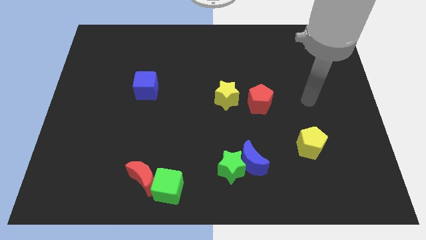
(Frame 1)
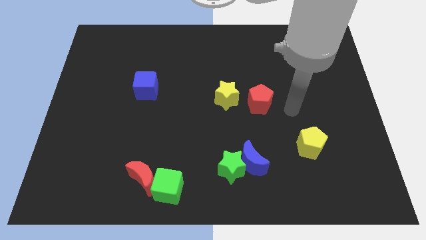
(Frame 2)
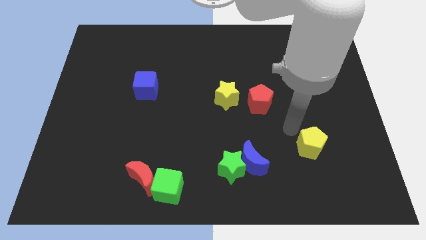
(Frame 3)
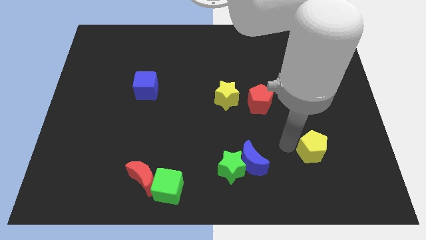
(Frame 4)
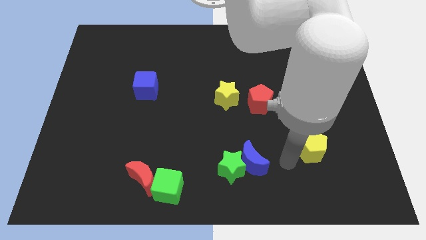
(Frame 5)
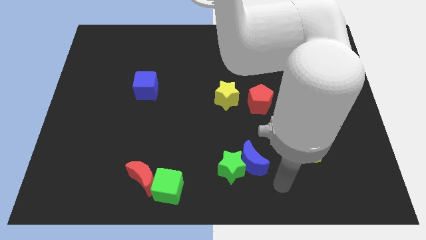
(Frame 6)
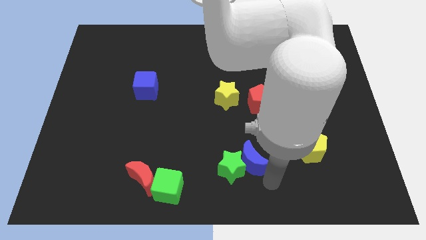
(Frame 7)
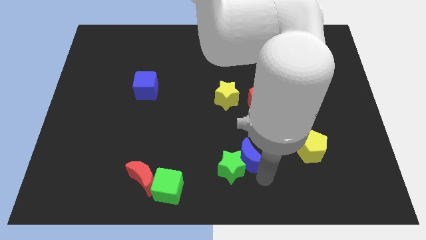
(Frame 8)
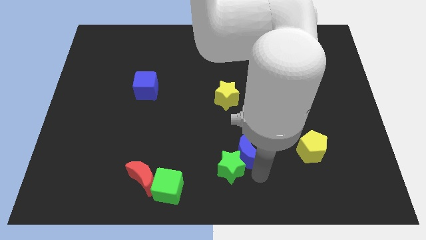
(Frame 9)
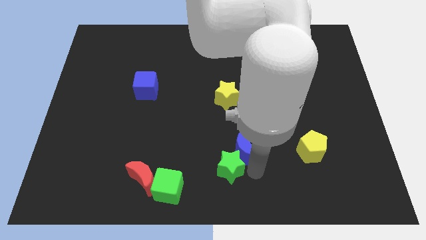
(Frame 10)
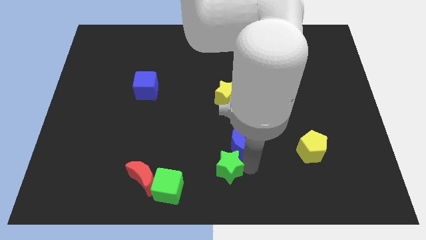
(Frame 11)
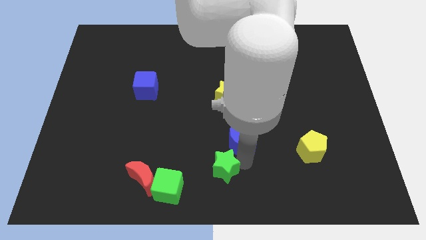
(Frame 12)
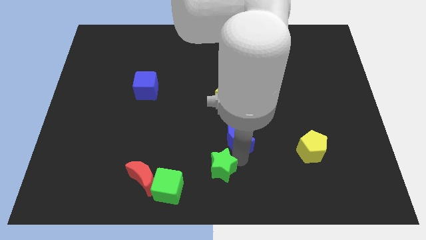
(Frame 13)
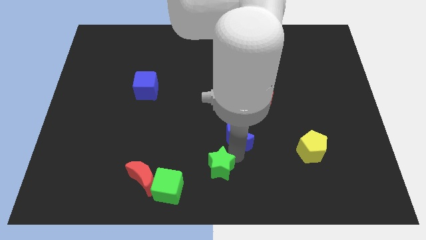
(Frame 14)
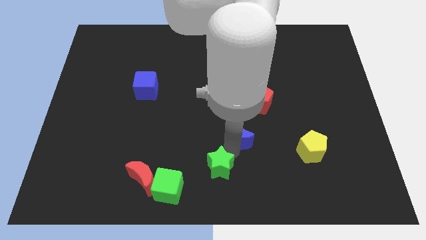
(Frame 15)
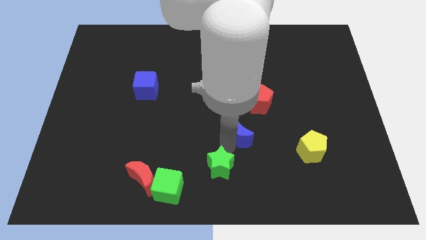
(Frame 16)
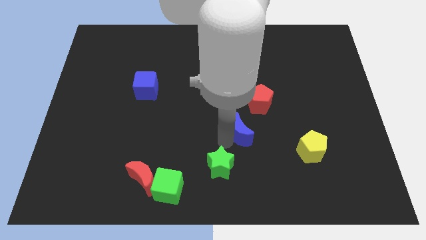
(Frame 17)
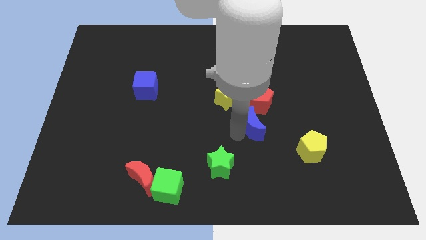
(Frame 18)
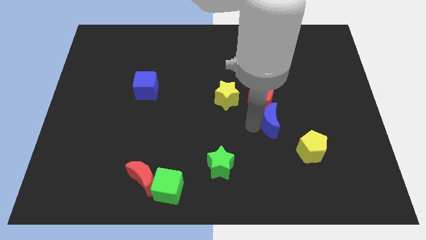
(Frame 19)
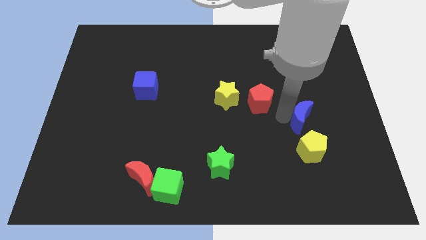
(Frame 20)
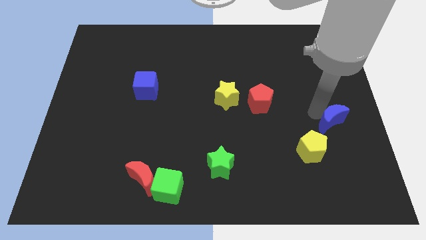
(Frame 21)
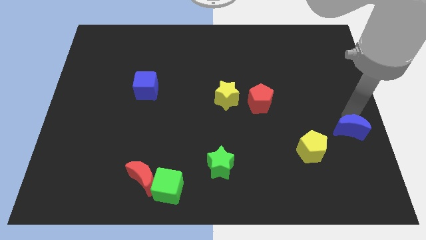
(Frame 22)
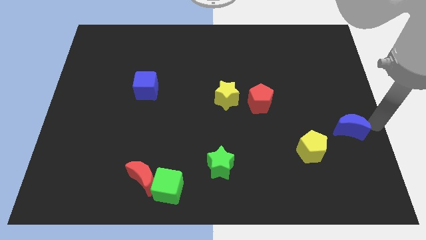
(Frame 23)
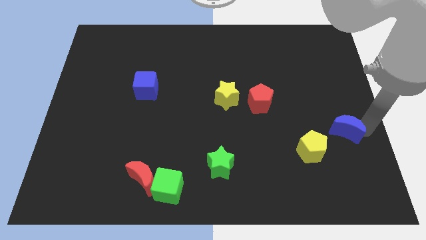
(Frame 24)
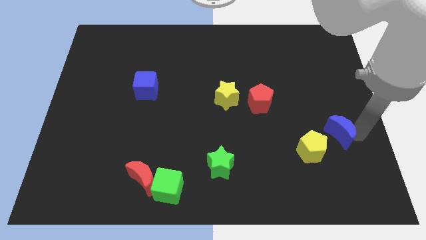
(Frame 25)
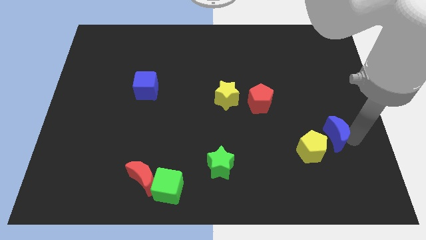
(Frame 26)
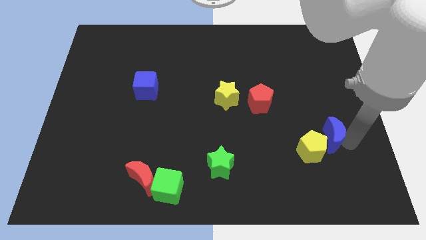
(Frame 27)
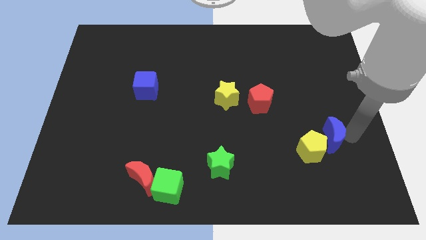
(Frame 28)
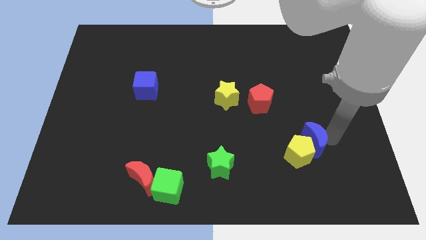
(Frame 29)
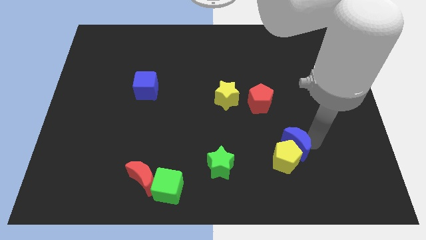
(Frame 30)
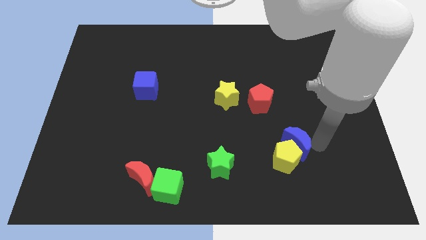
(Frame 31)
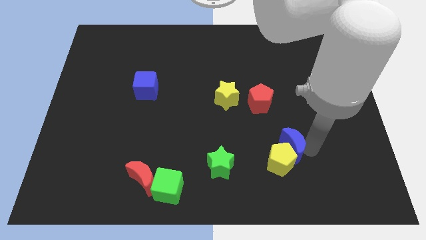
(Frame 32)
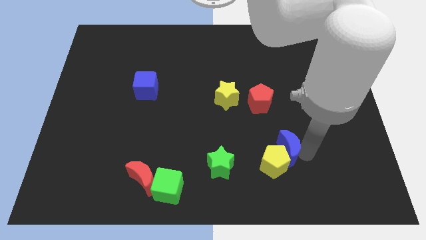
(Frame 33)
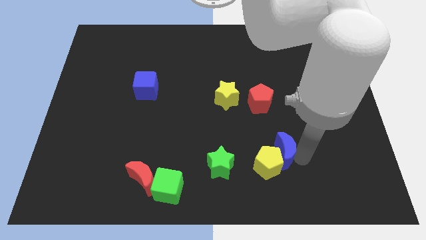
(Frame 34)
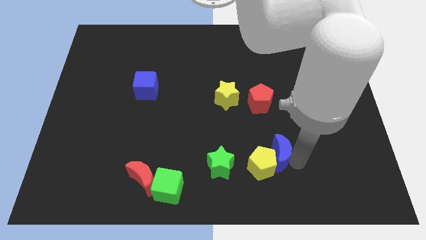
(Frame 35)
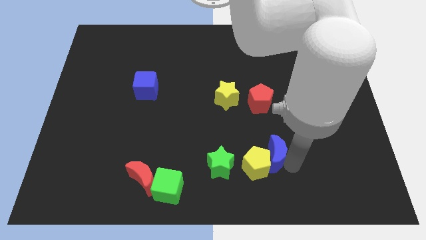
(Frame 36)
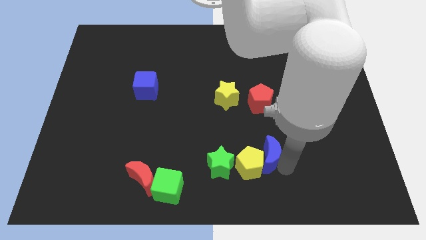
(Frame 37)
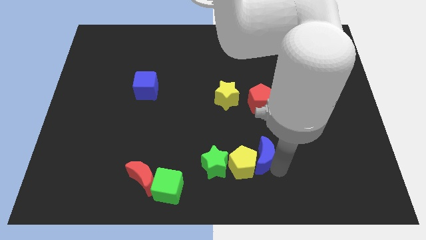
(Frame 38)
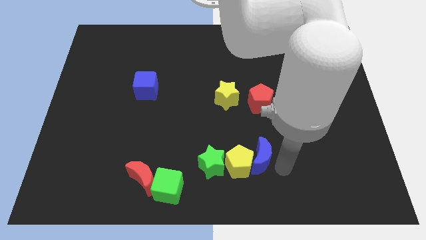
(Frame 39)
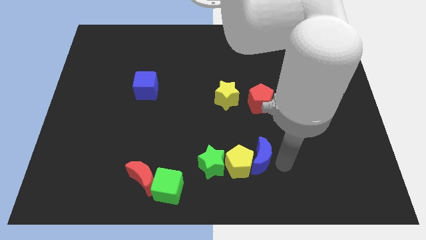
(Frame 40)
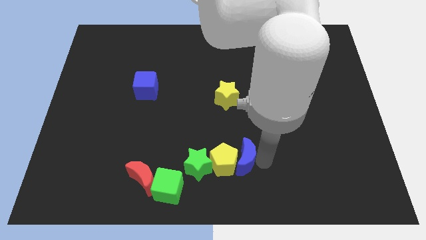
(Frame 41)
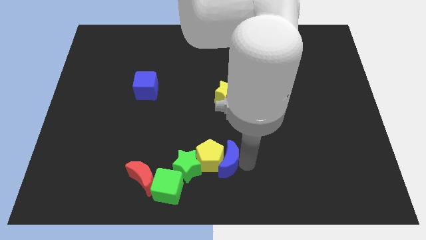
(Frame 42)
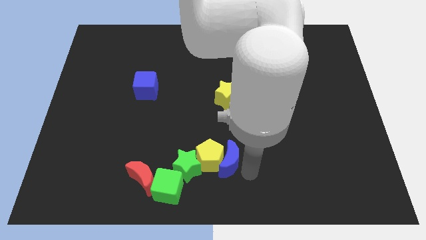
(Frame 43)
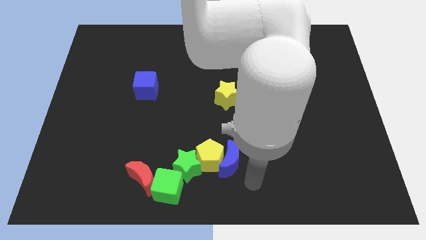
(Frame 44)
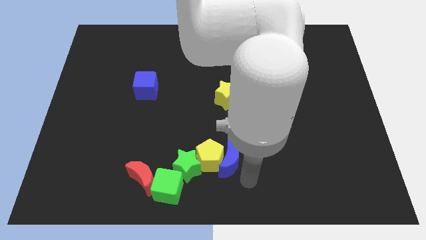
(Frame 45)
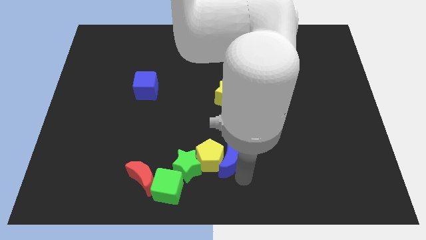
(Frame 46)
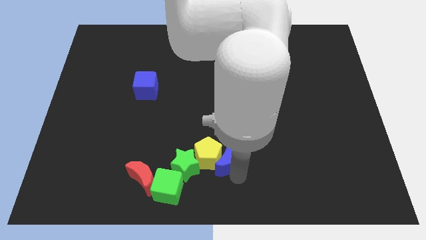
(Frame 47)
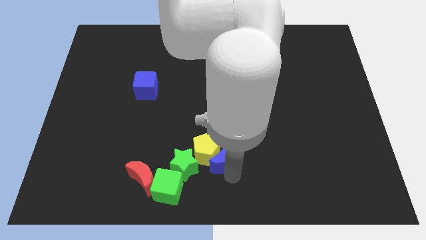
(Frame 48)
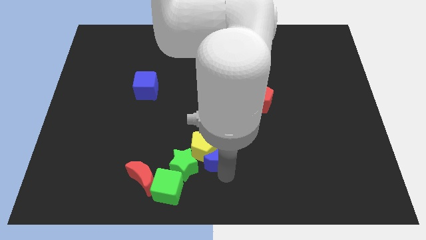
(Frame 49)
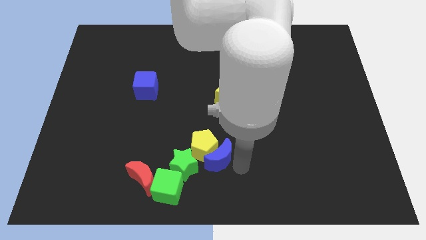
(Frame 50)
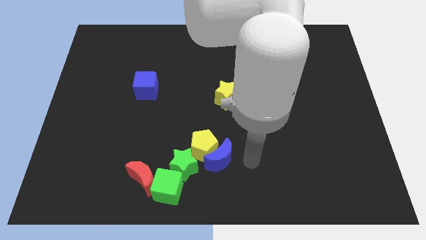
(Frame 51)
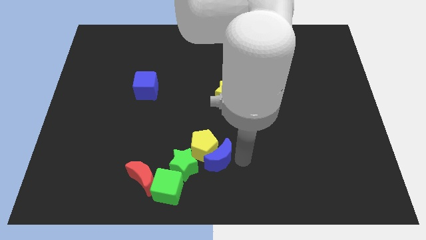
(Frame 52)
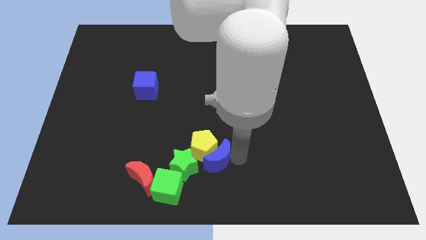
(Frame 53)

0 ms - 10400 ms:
move the blue moon left a bit

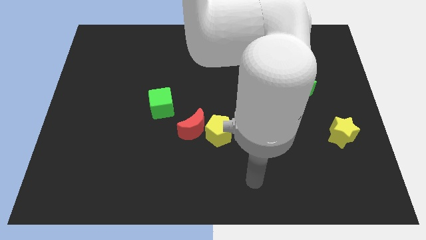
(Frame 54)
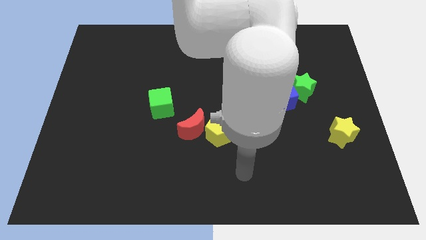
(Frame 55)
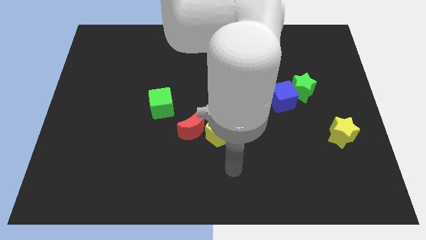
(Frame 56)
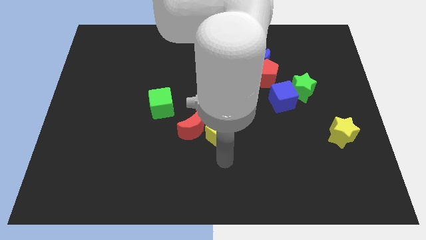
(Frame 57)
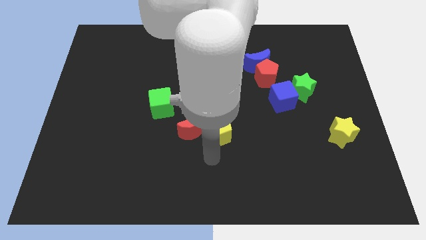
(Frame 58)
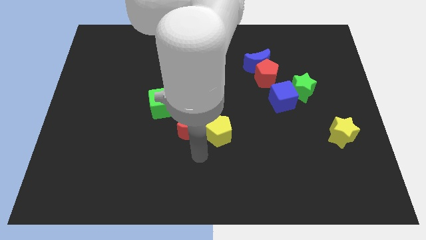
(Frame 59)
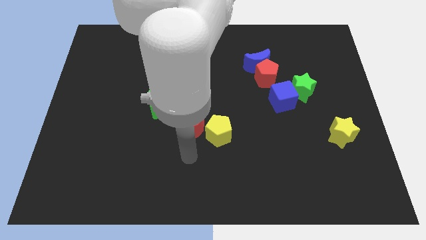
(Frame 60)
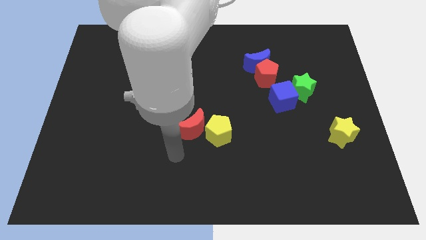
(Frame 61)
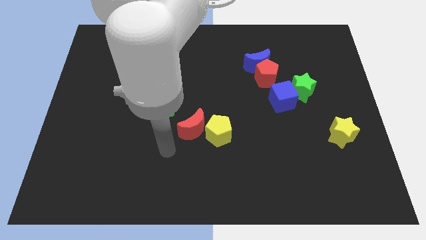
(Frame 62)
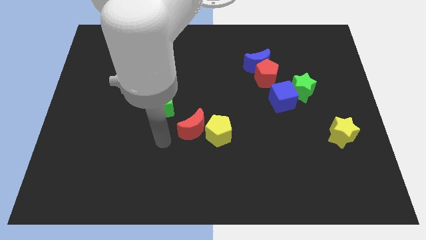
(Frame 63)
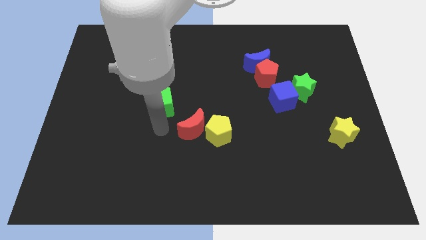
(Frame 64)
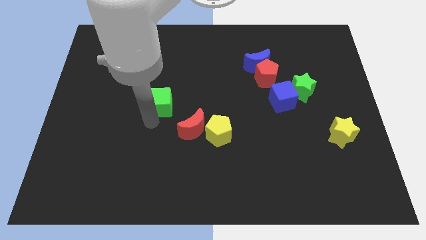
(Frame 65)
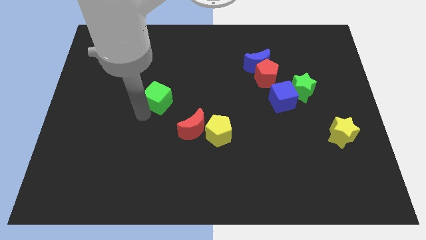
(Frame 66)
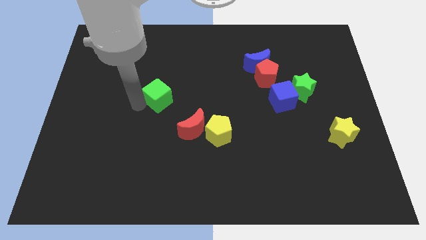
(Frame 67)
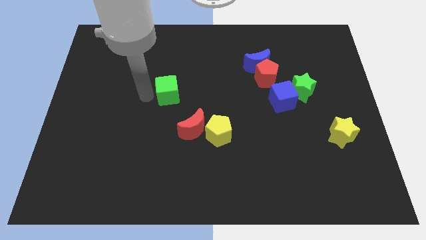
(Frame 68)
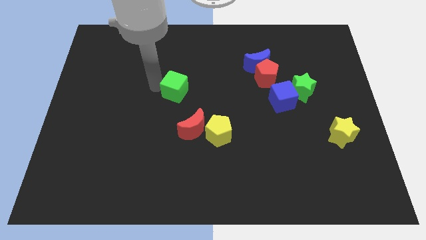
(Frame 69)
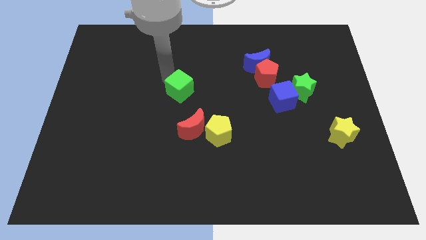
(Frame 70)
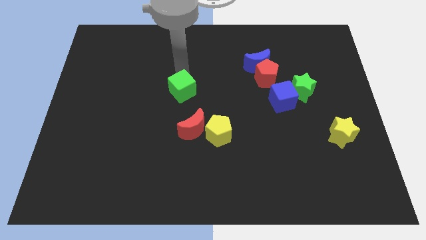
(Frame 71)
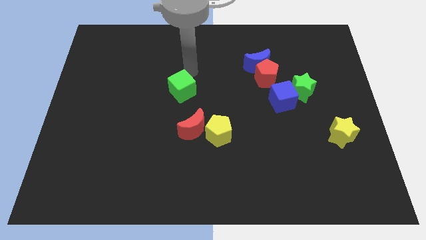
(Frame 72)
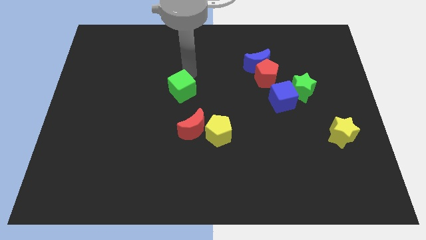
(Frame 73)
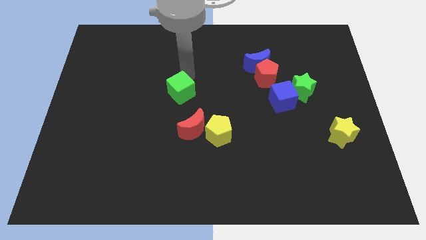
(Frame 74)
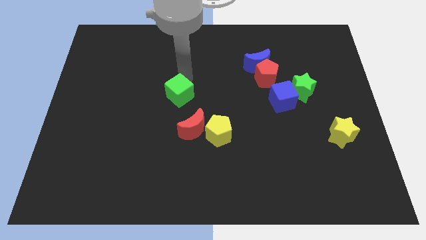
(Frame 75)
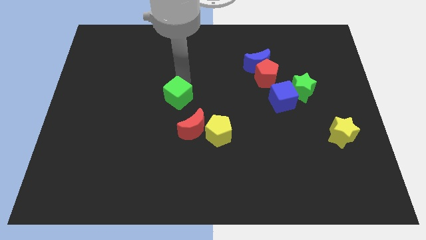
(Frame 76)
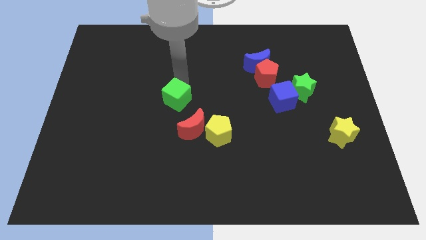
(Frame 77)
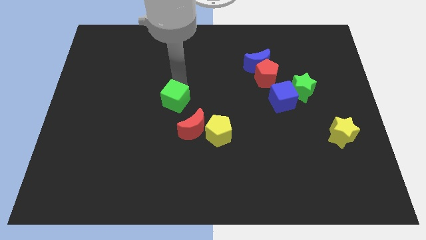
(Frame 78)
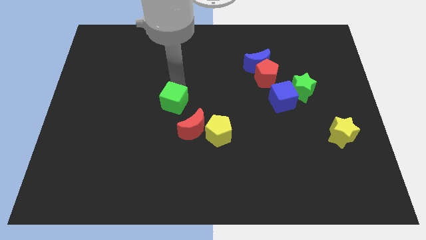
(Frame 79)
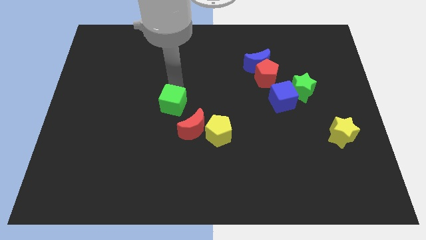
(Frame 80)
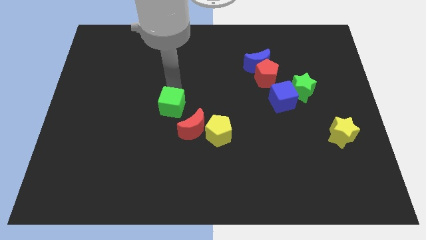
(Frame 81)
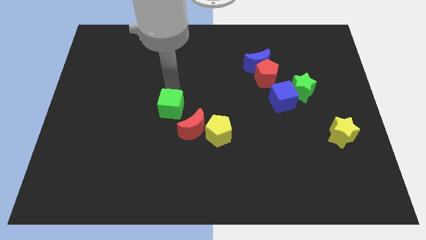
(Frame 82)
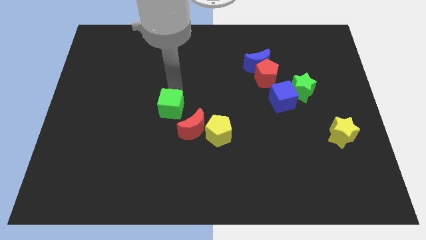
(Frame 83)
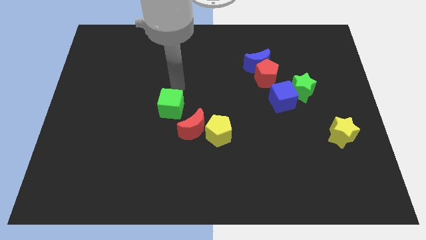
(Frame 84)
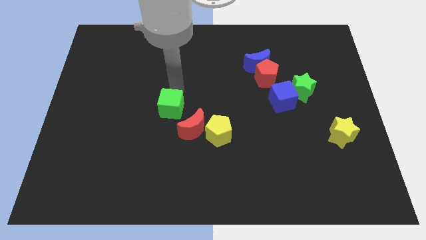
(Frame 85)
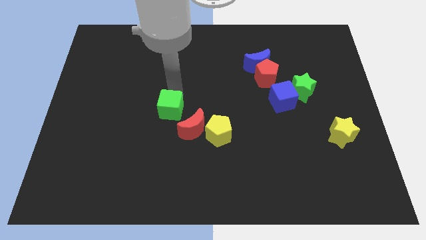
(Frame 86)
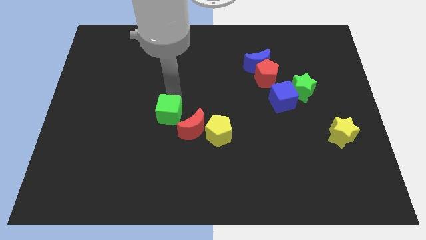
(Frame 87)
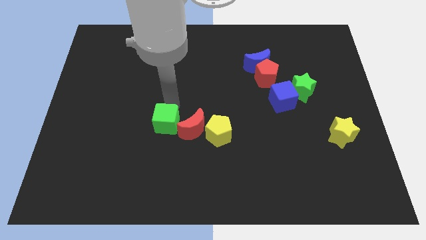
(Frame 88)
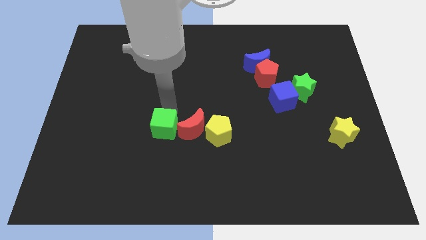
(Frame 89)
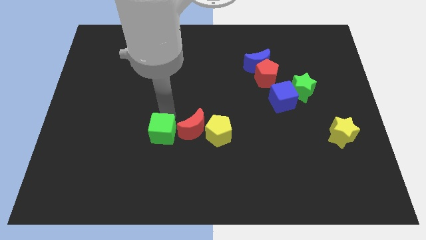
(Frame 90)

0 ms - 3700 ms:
slightly slide the green cube downwards
